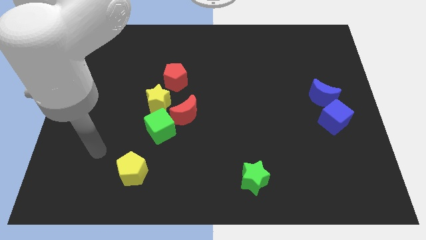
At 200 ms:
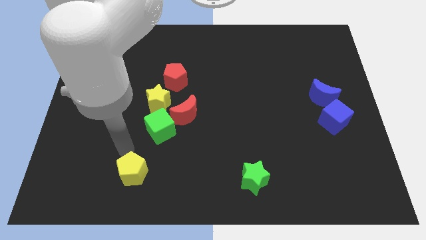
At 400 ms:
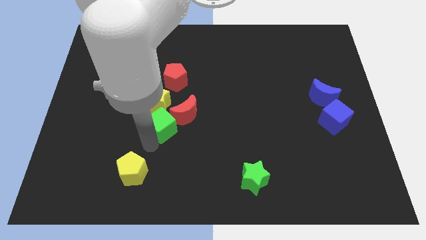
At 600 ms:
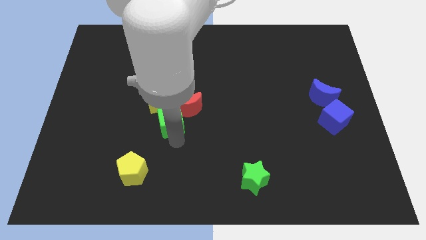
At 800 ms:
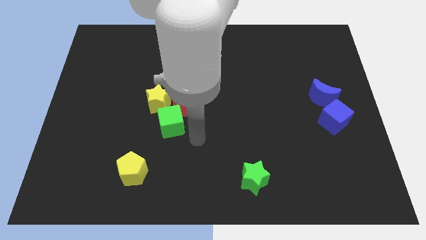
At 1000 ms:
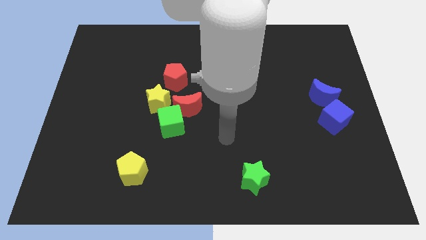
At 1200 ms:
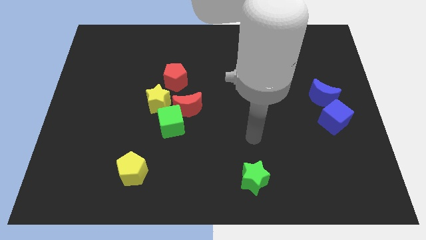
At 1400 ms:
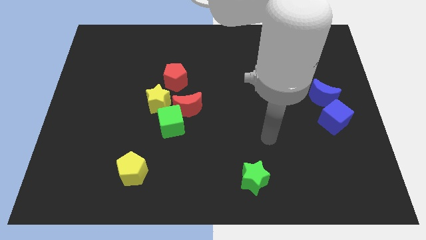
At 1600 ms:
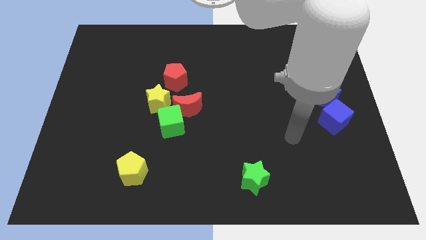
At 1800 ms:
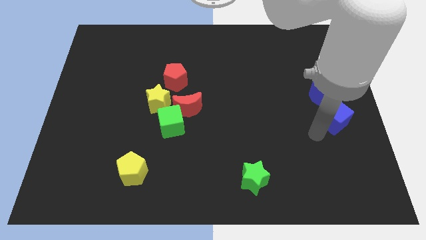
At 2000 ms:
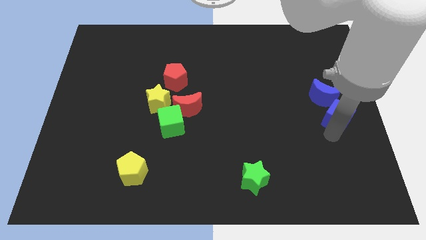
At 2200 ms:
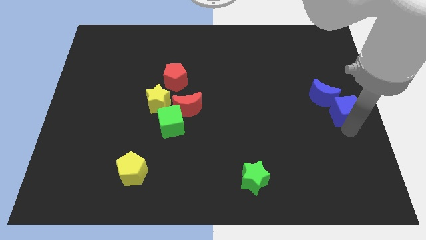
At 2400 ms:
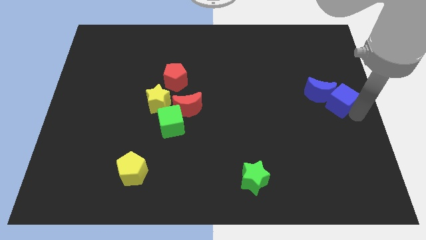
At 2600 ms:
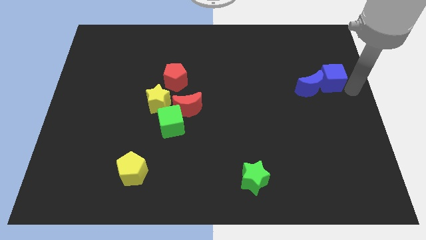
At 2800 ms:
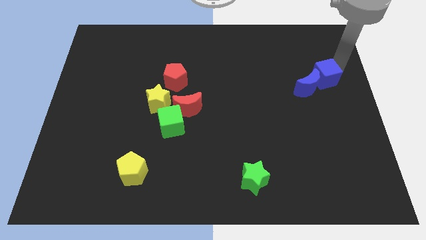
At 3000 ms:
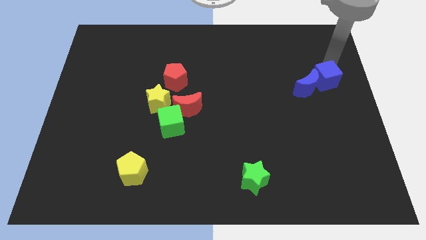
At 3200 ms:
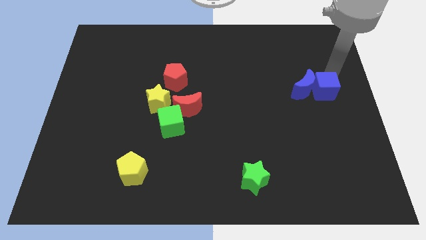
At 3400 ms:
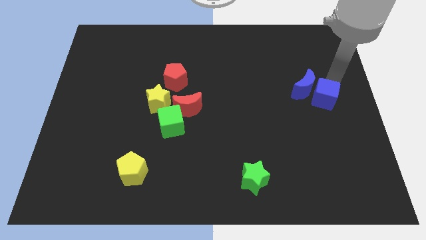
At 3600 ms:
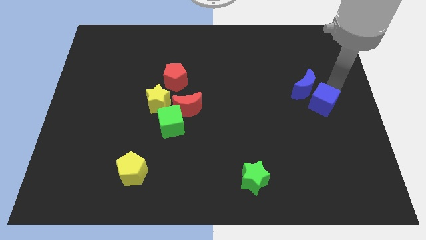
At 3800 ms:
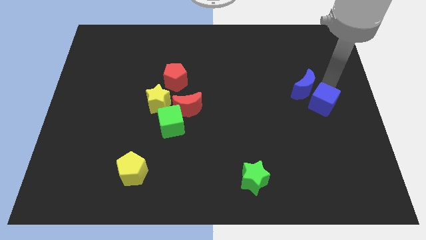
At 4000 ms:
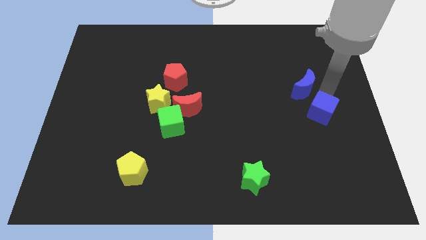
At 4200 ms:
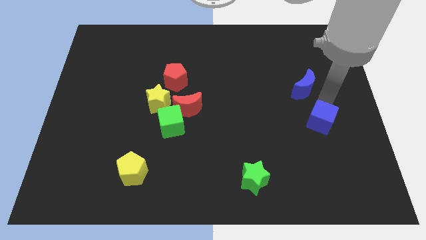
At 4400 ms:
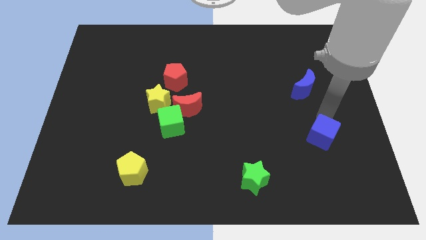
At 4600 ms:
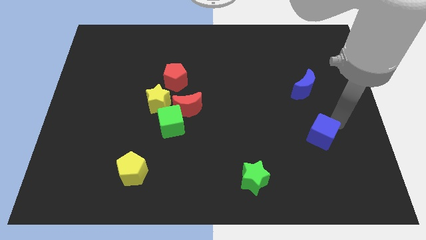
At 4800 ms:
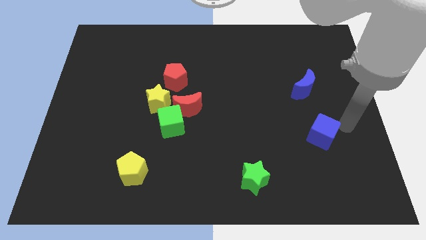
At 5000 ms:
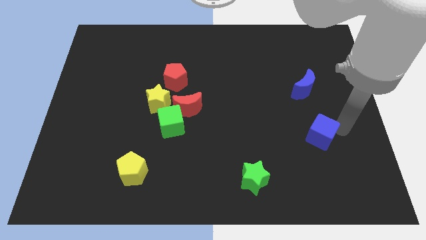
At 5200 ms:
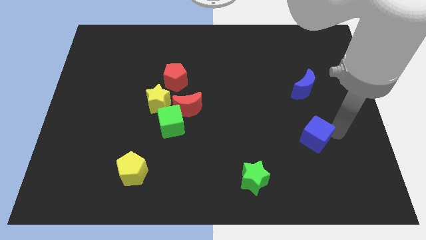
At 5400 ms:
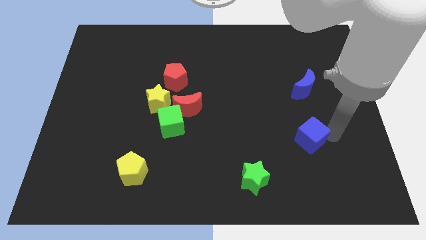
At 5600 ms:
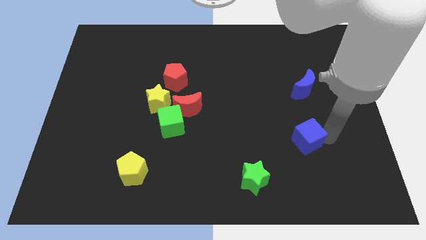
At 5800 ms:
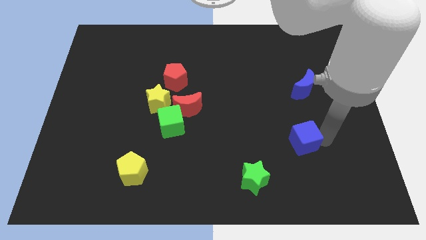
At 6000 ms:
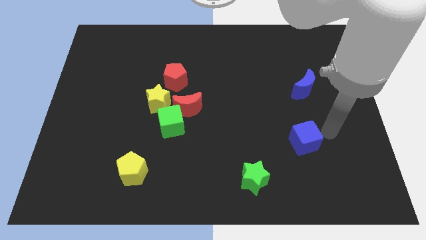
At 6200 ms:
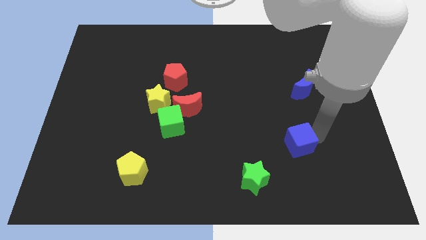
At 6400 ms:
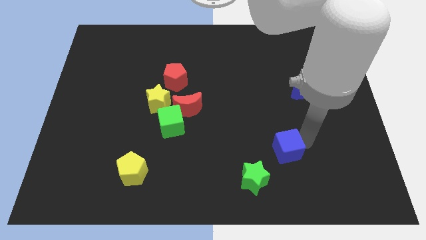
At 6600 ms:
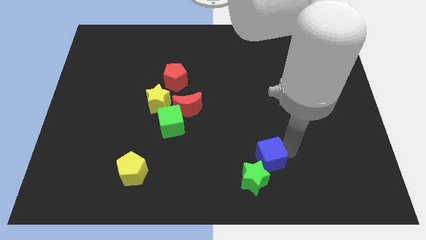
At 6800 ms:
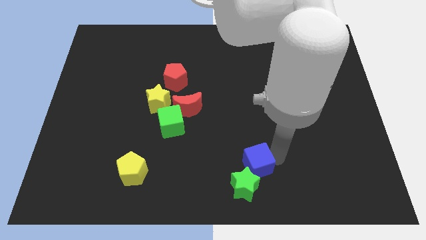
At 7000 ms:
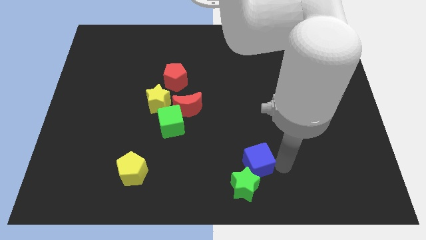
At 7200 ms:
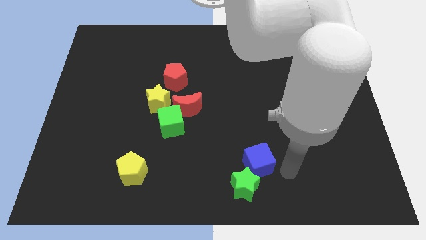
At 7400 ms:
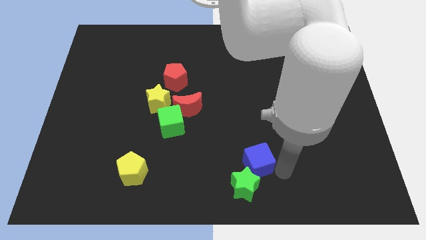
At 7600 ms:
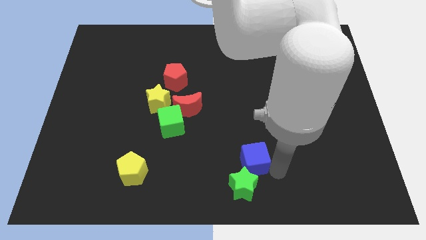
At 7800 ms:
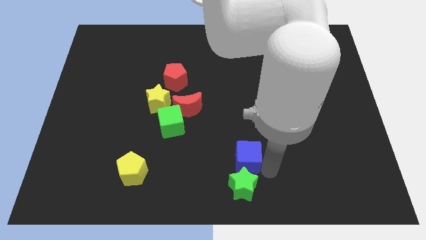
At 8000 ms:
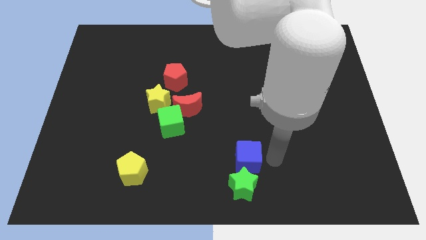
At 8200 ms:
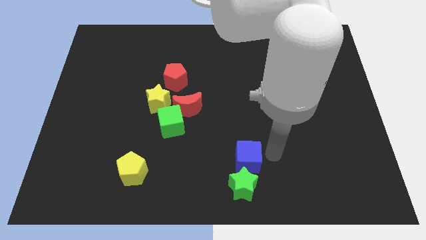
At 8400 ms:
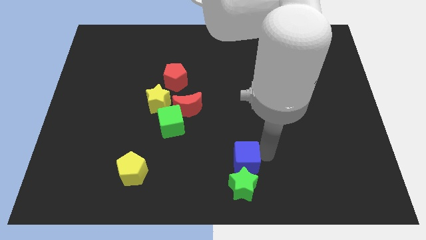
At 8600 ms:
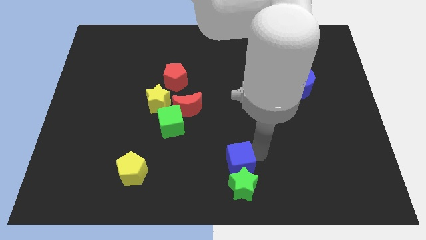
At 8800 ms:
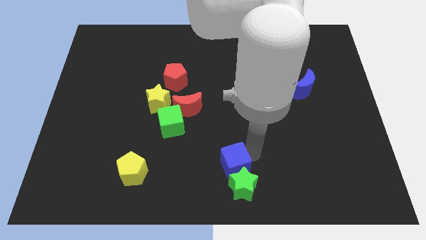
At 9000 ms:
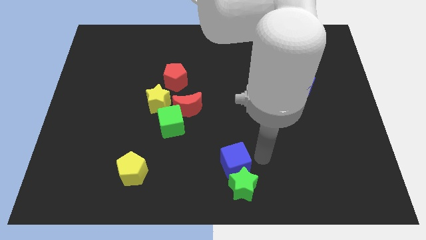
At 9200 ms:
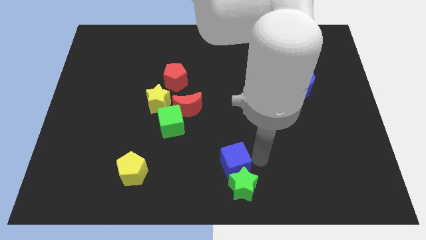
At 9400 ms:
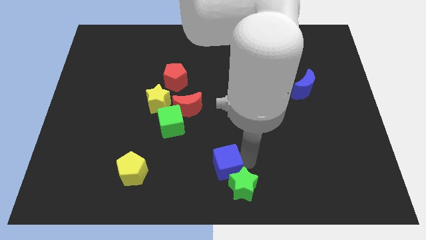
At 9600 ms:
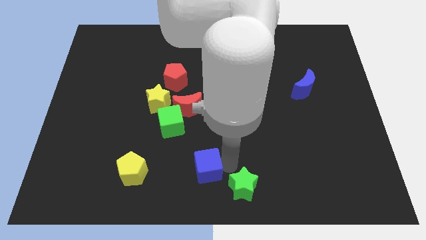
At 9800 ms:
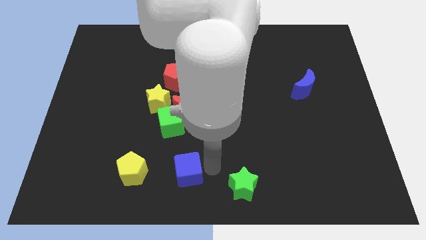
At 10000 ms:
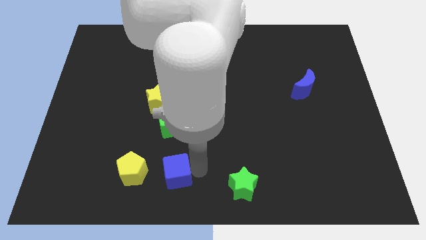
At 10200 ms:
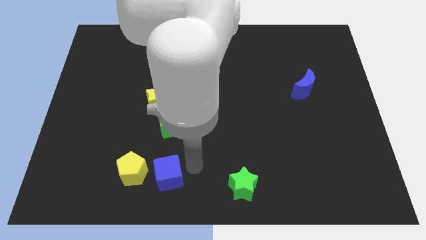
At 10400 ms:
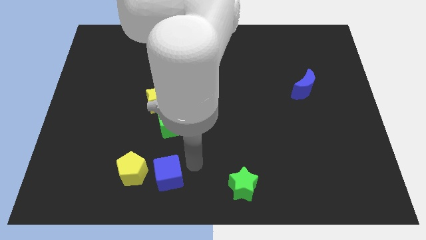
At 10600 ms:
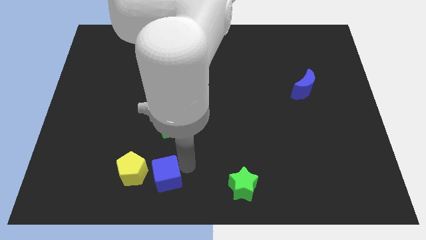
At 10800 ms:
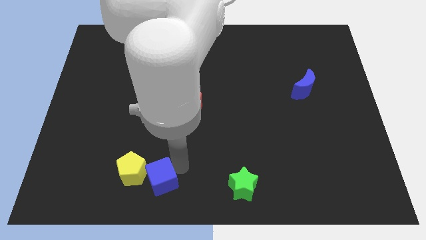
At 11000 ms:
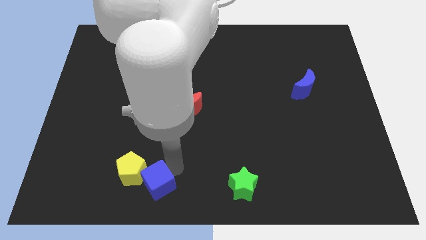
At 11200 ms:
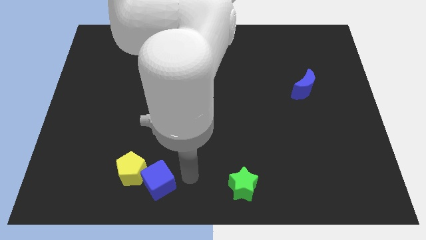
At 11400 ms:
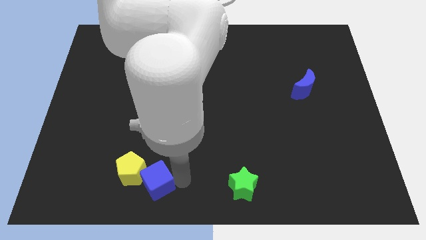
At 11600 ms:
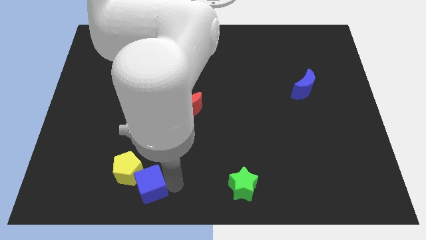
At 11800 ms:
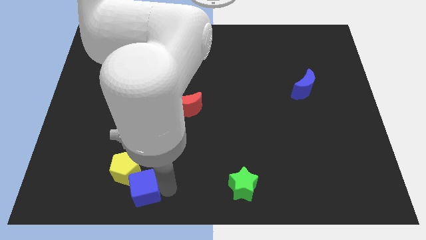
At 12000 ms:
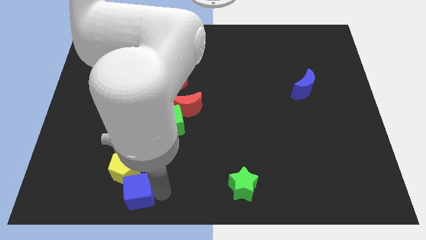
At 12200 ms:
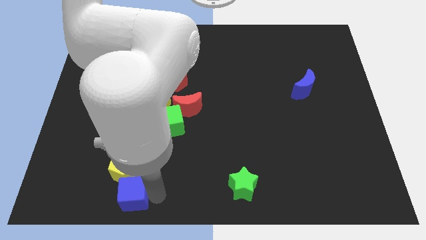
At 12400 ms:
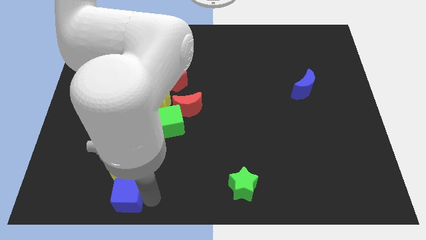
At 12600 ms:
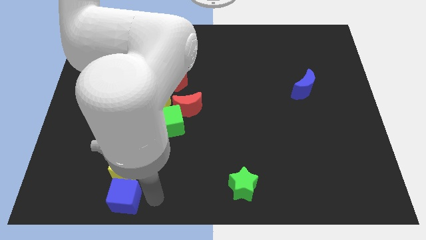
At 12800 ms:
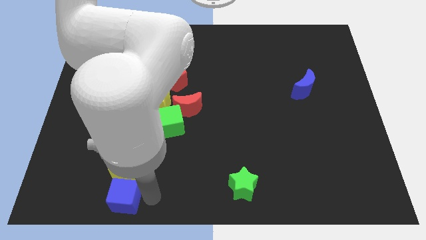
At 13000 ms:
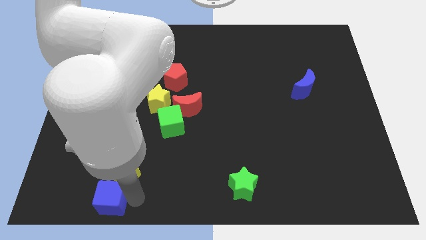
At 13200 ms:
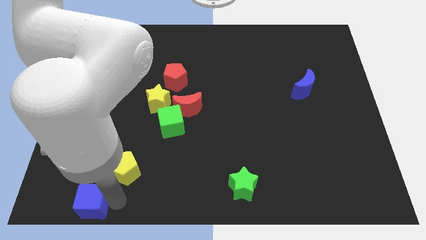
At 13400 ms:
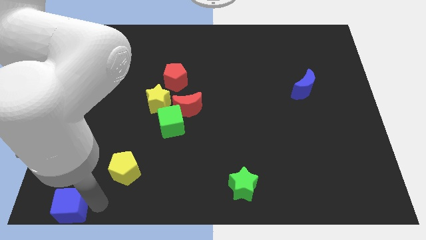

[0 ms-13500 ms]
put the blue cube to the lower left corner
